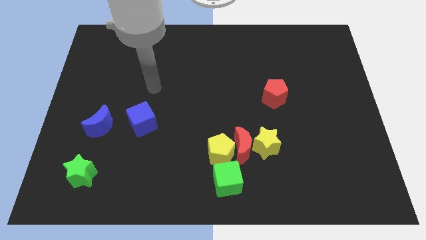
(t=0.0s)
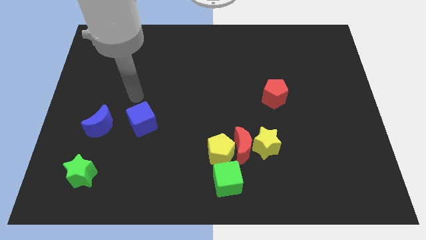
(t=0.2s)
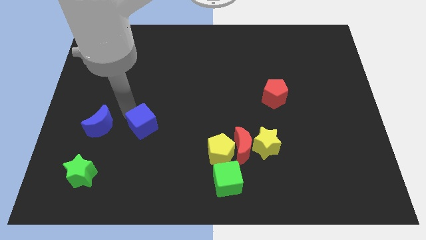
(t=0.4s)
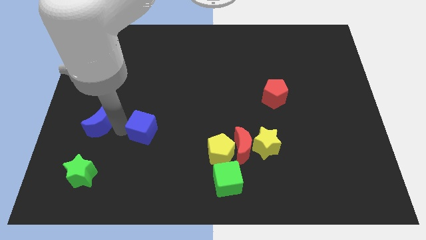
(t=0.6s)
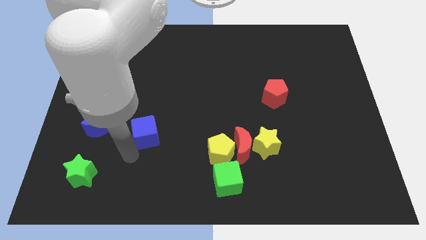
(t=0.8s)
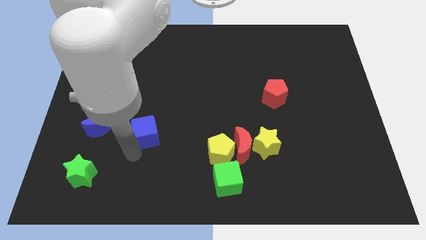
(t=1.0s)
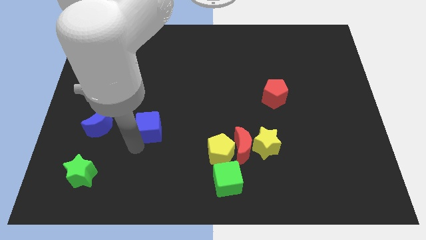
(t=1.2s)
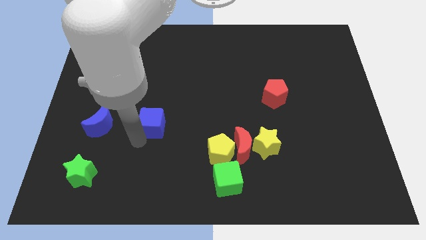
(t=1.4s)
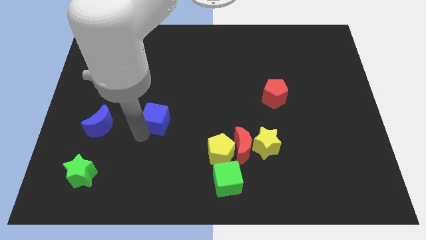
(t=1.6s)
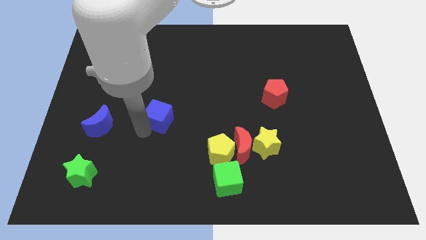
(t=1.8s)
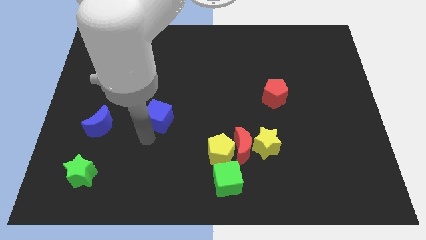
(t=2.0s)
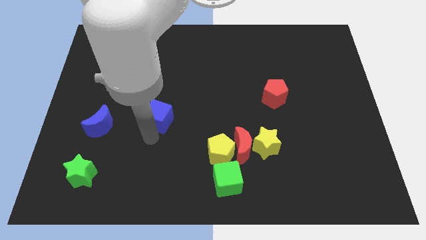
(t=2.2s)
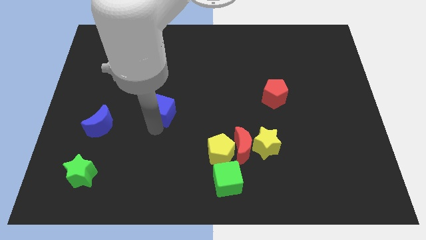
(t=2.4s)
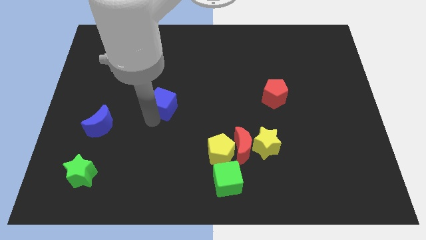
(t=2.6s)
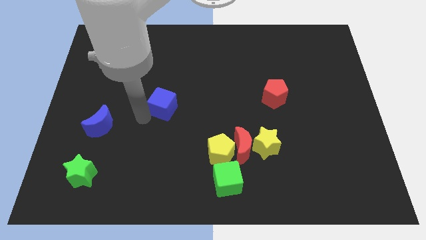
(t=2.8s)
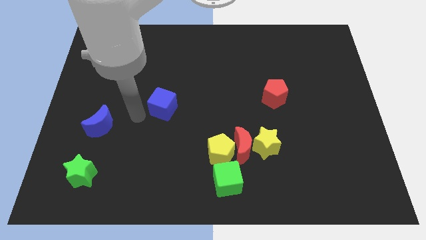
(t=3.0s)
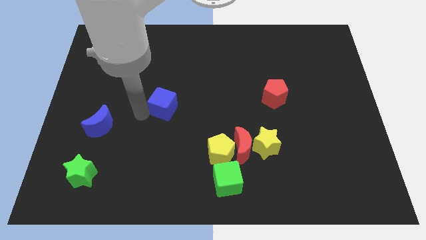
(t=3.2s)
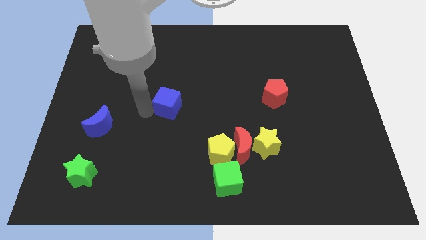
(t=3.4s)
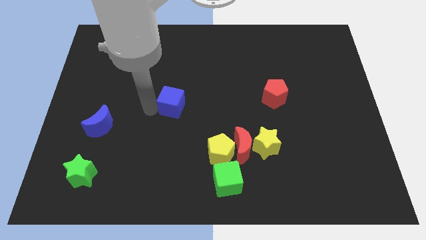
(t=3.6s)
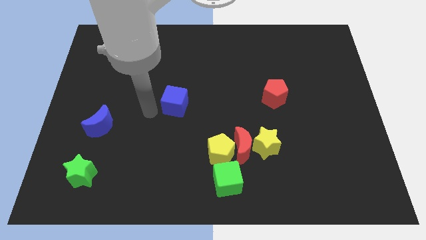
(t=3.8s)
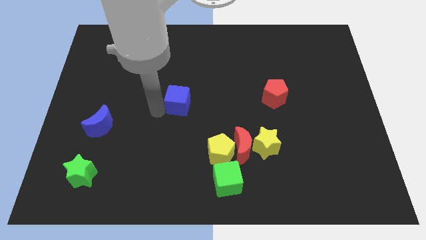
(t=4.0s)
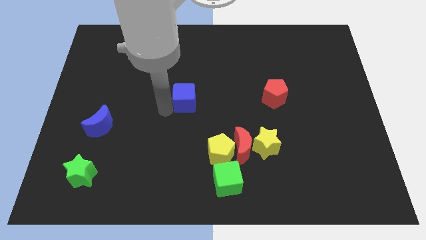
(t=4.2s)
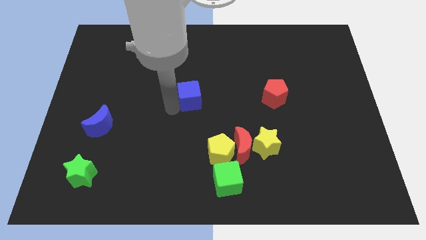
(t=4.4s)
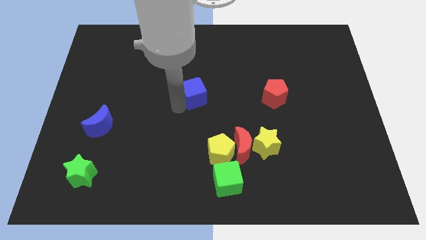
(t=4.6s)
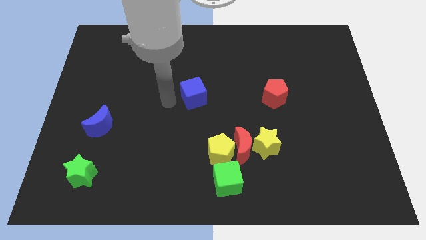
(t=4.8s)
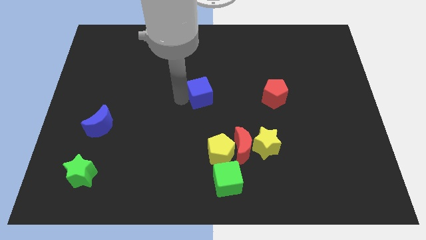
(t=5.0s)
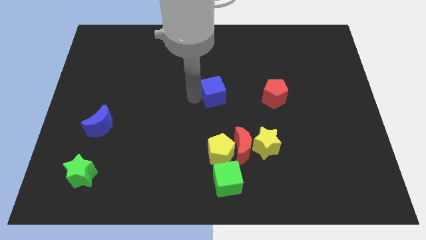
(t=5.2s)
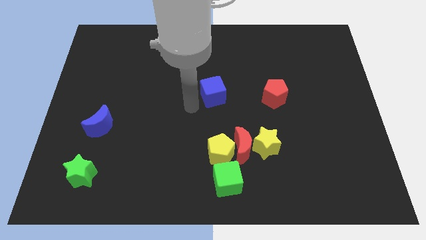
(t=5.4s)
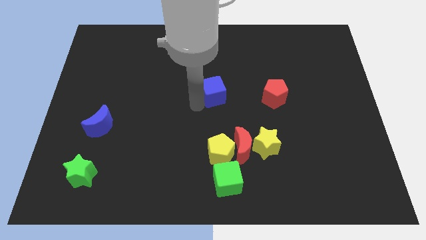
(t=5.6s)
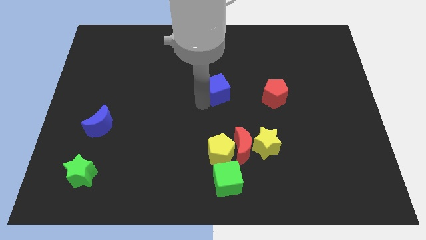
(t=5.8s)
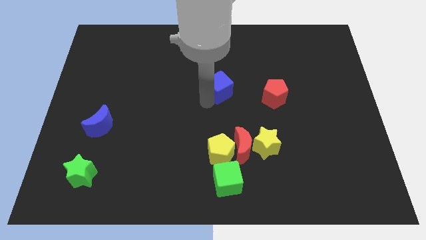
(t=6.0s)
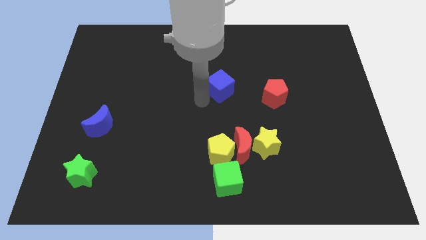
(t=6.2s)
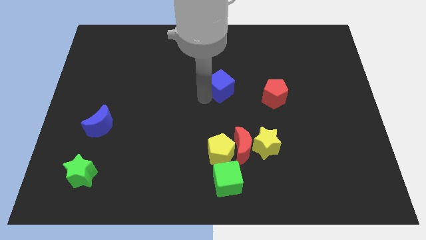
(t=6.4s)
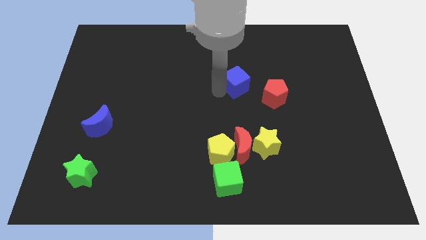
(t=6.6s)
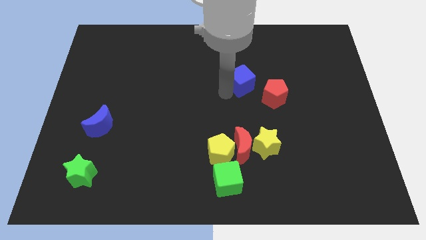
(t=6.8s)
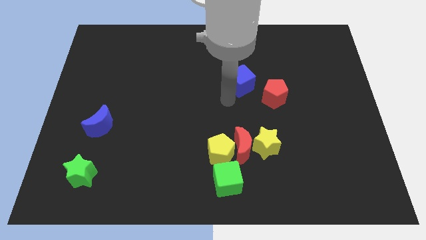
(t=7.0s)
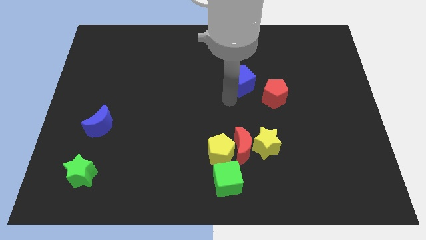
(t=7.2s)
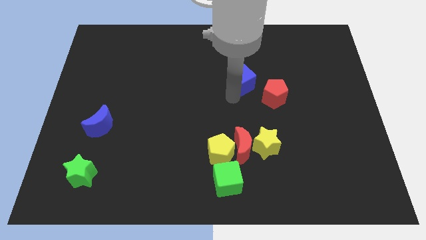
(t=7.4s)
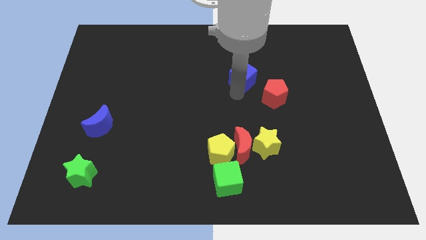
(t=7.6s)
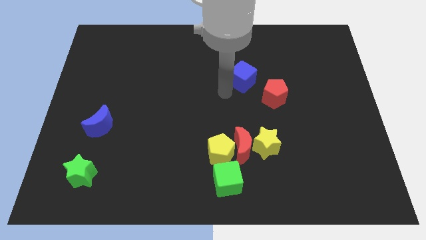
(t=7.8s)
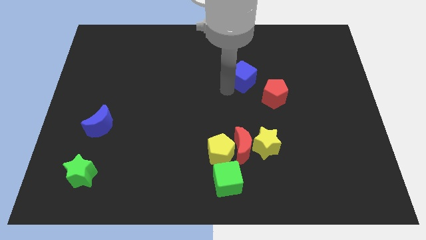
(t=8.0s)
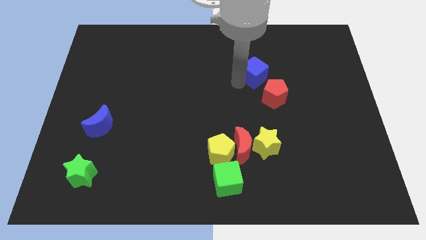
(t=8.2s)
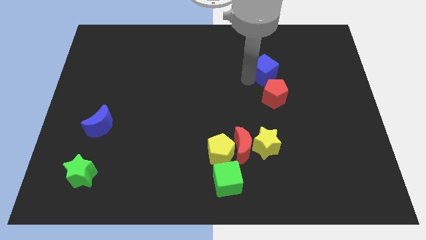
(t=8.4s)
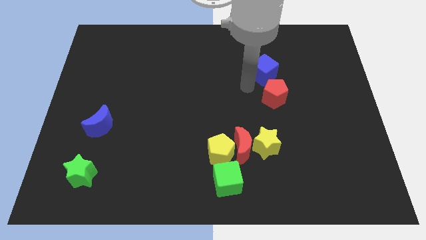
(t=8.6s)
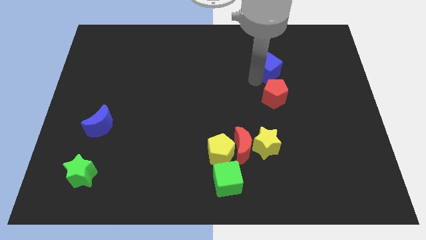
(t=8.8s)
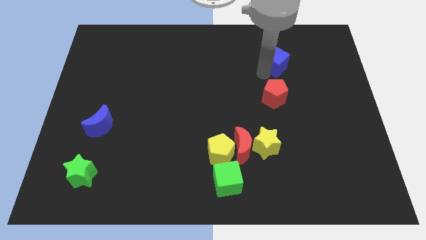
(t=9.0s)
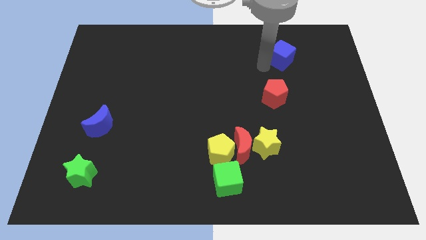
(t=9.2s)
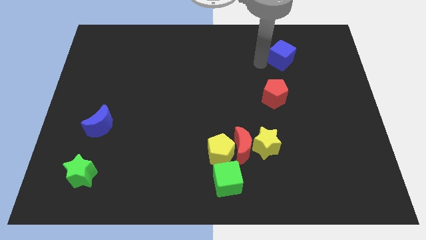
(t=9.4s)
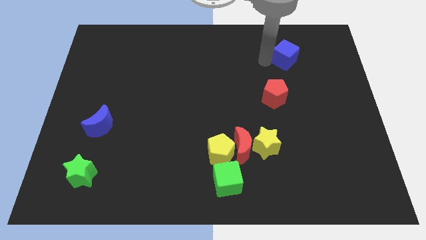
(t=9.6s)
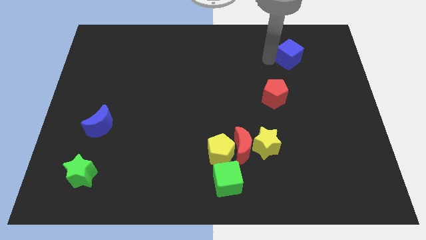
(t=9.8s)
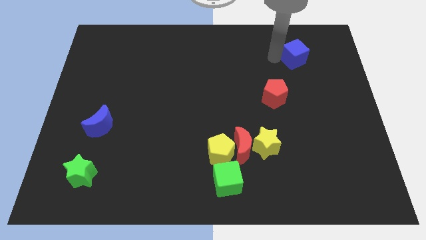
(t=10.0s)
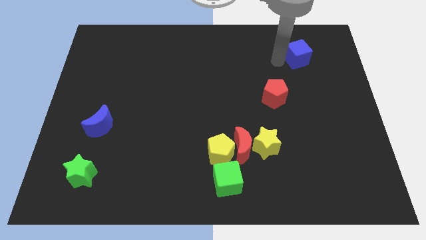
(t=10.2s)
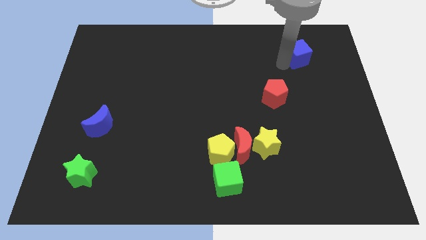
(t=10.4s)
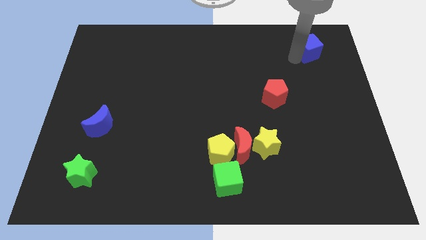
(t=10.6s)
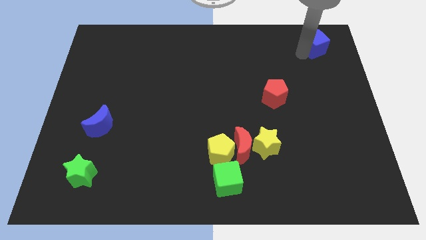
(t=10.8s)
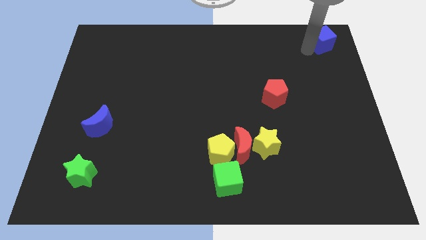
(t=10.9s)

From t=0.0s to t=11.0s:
slide the blue cube to the upper right corner

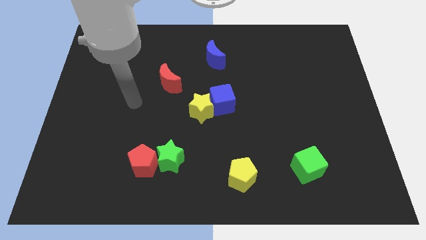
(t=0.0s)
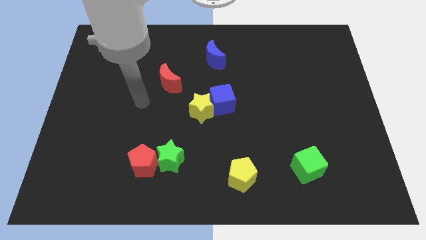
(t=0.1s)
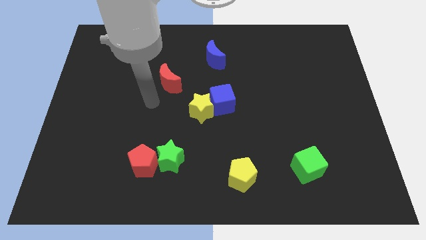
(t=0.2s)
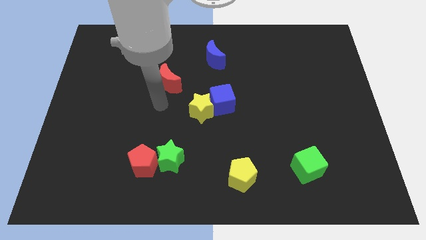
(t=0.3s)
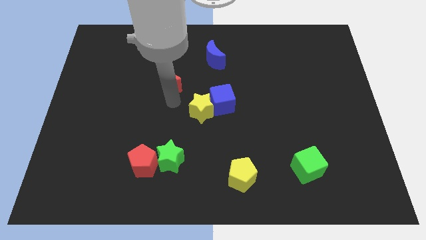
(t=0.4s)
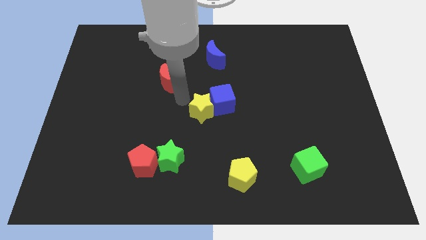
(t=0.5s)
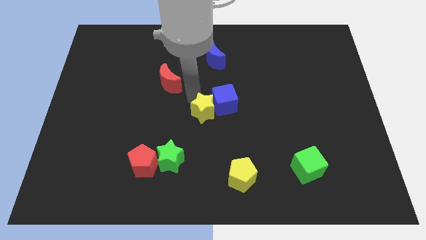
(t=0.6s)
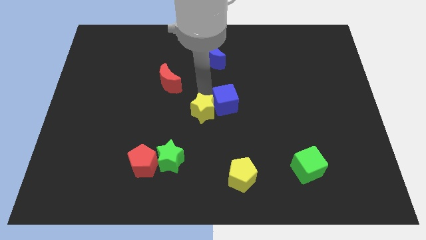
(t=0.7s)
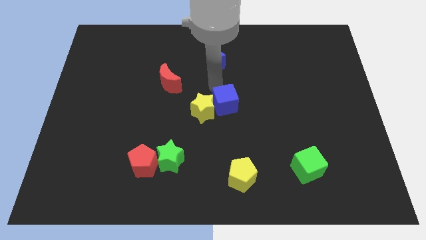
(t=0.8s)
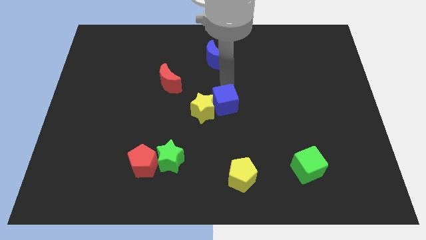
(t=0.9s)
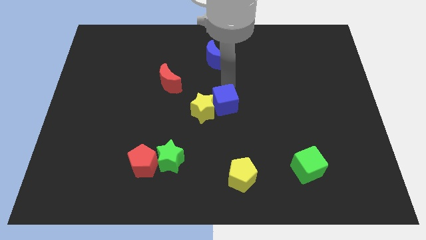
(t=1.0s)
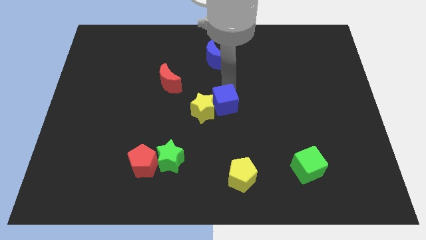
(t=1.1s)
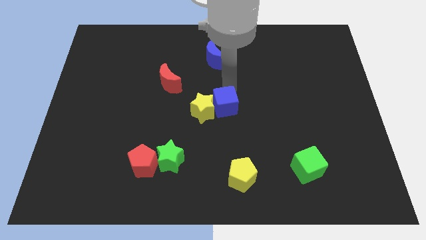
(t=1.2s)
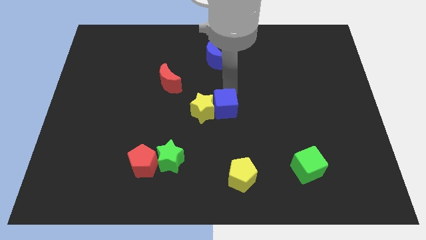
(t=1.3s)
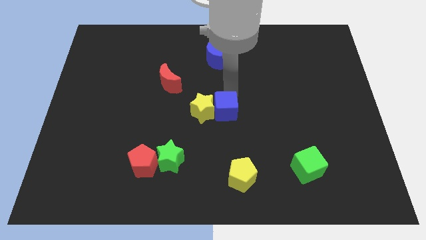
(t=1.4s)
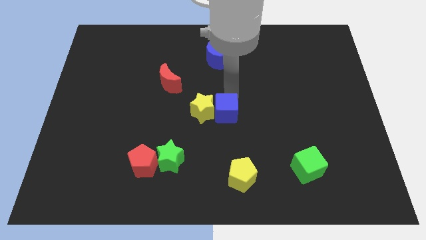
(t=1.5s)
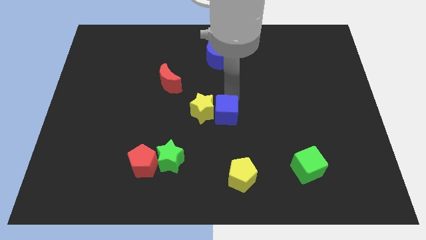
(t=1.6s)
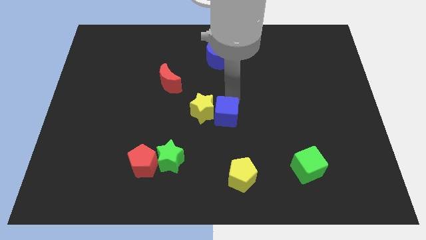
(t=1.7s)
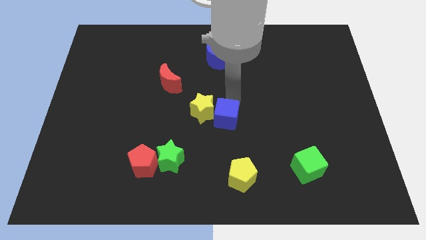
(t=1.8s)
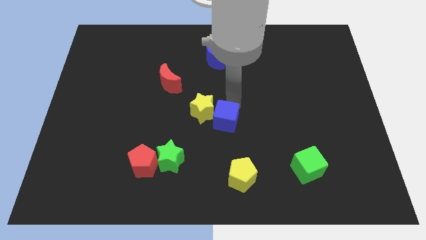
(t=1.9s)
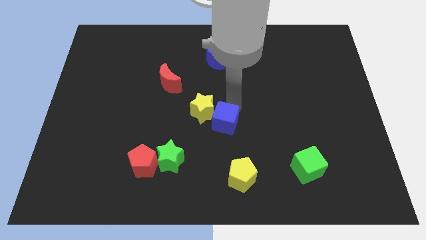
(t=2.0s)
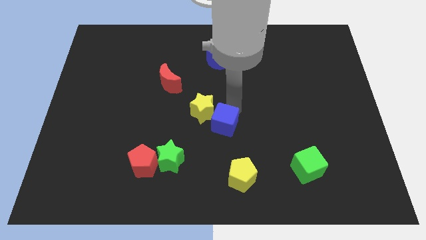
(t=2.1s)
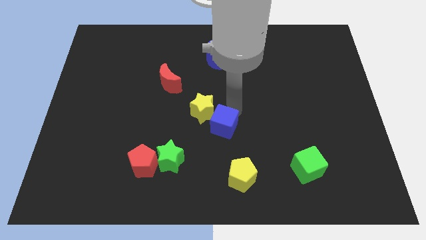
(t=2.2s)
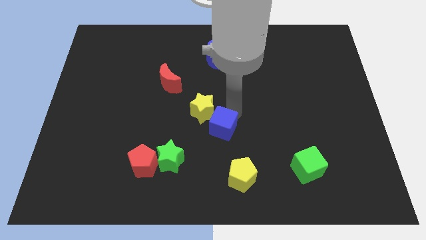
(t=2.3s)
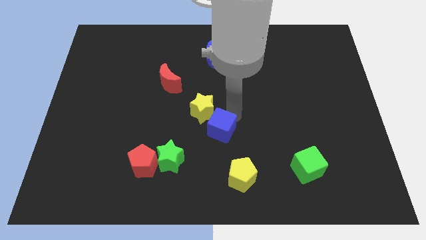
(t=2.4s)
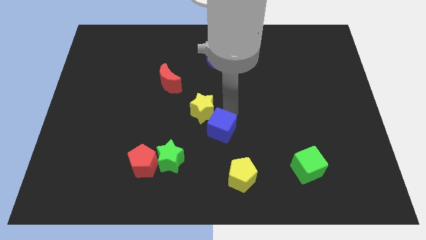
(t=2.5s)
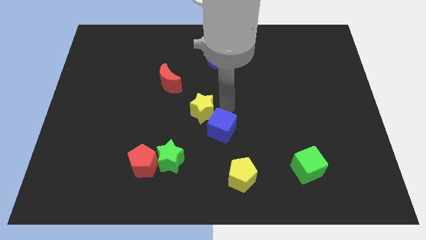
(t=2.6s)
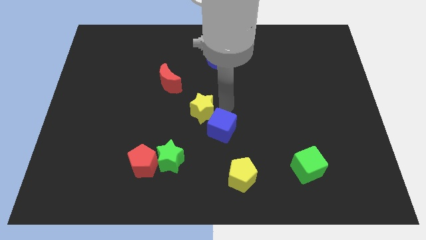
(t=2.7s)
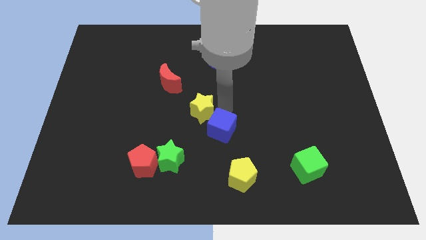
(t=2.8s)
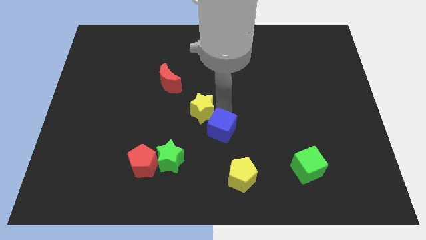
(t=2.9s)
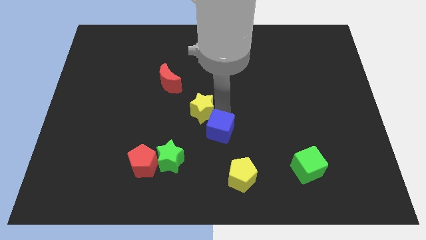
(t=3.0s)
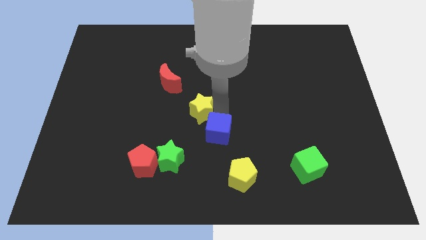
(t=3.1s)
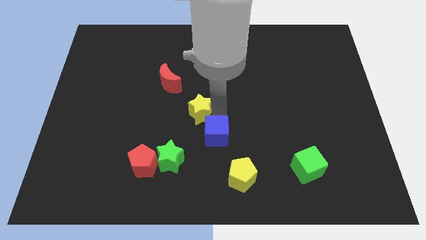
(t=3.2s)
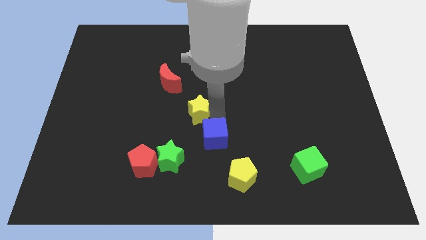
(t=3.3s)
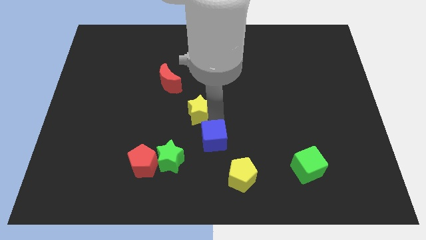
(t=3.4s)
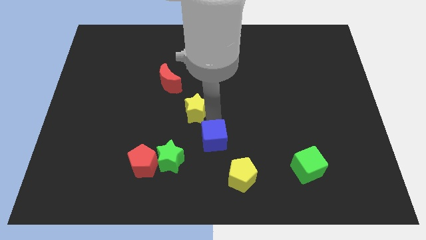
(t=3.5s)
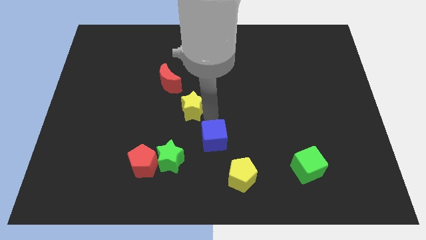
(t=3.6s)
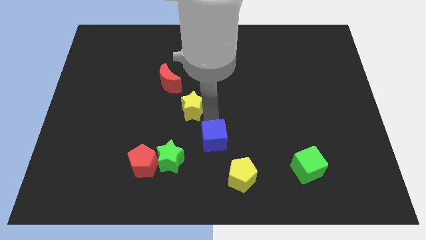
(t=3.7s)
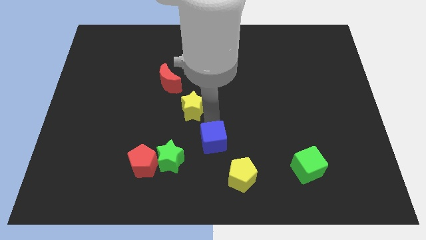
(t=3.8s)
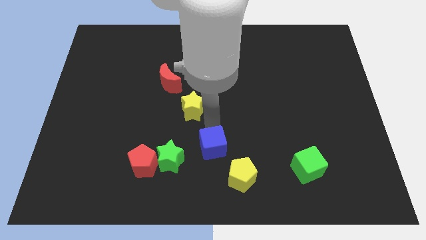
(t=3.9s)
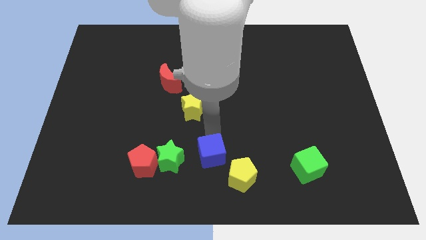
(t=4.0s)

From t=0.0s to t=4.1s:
push the blue cube to the bottom side
